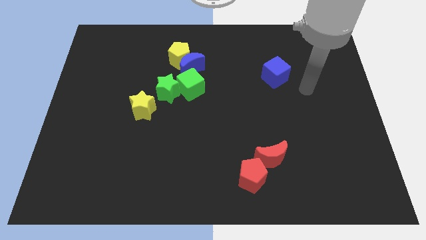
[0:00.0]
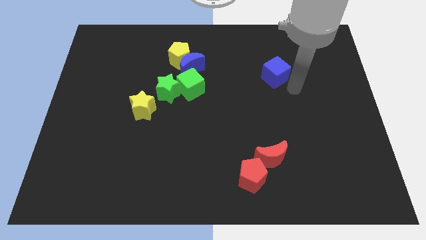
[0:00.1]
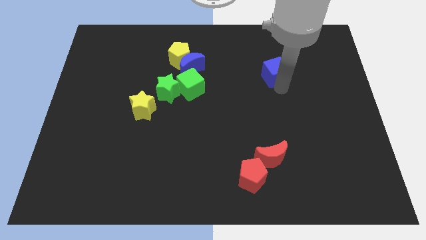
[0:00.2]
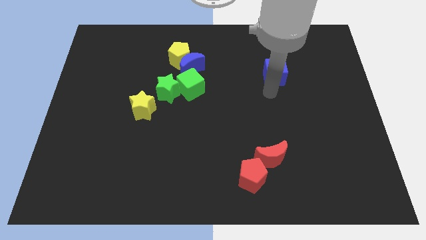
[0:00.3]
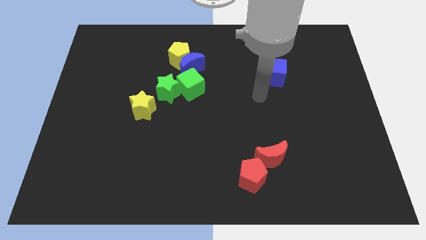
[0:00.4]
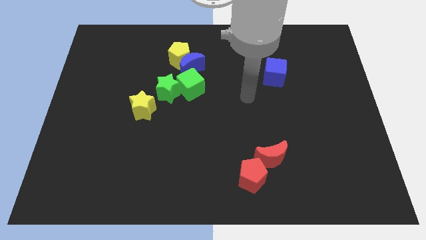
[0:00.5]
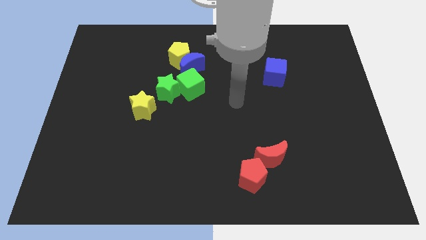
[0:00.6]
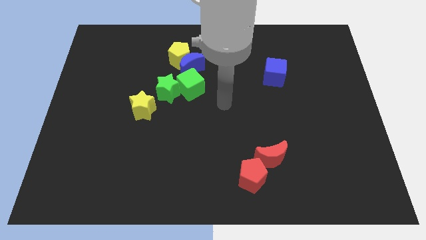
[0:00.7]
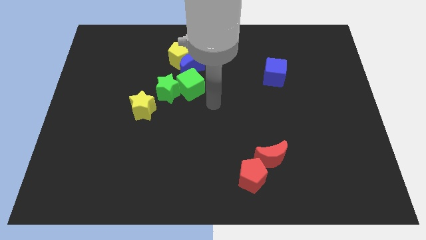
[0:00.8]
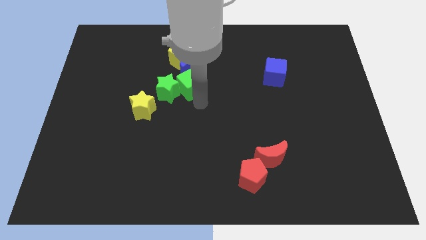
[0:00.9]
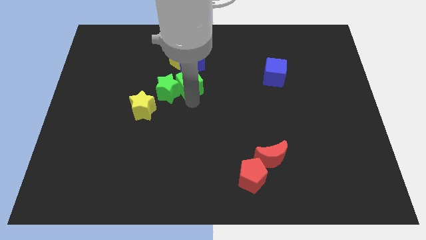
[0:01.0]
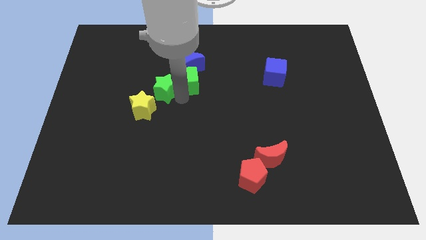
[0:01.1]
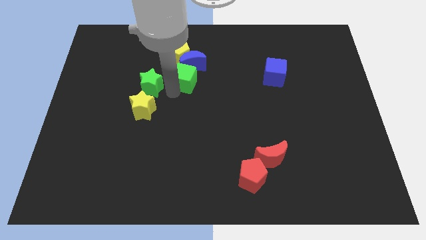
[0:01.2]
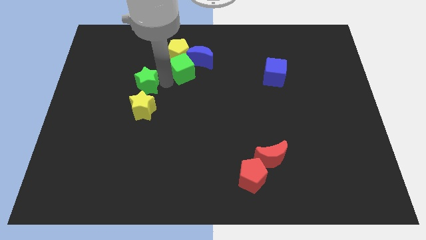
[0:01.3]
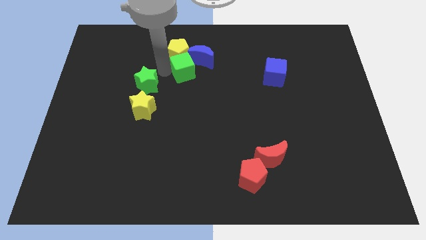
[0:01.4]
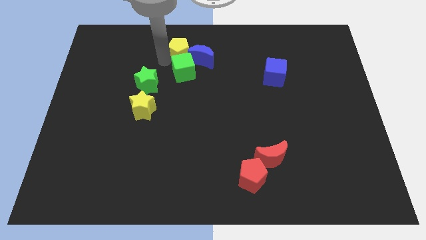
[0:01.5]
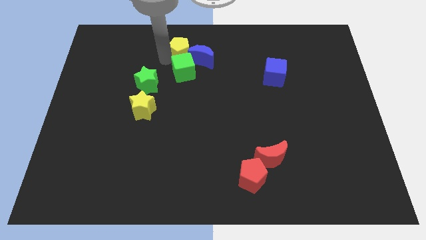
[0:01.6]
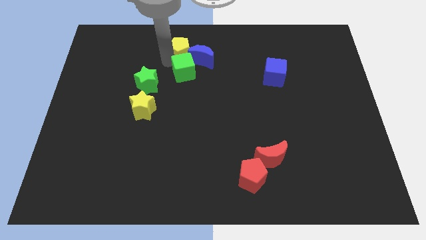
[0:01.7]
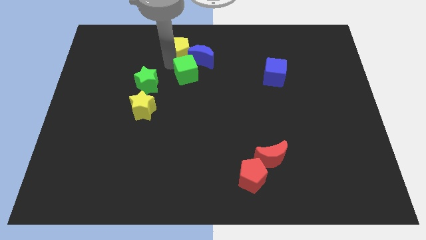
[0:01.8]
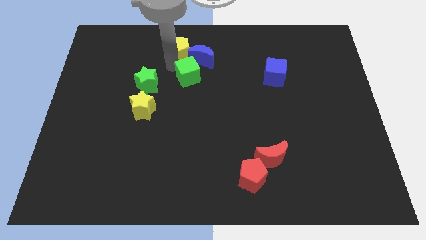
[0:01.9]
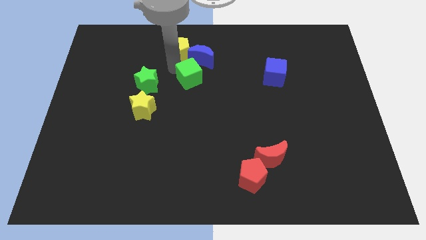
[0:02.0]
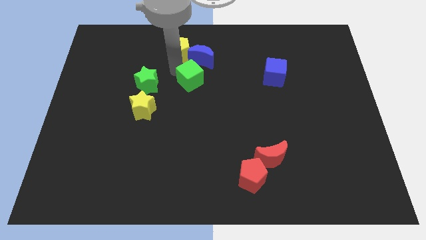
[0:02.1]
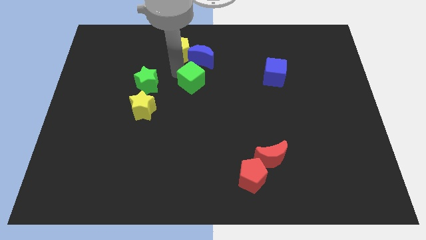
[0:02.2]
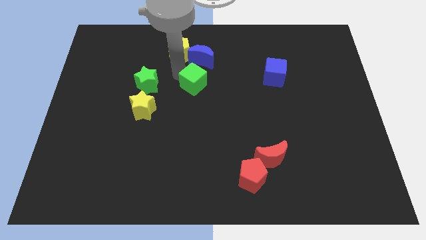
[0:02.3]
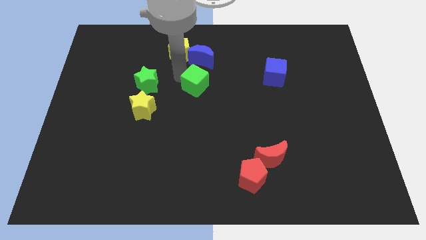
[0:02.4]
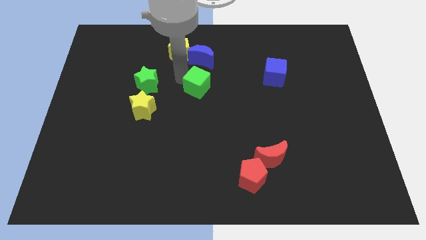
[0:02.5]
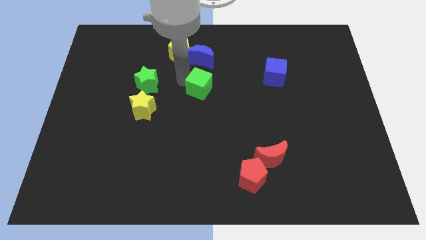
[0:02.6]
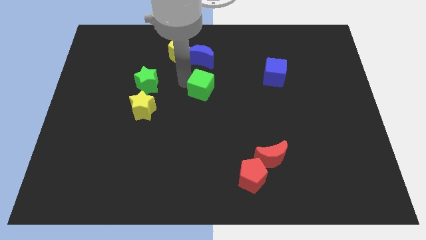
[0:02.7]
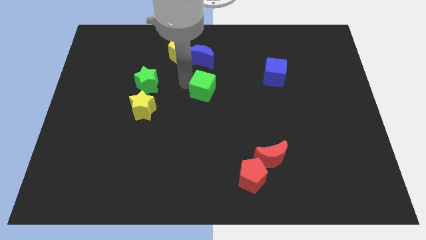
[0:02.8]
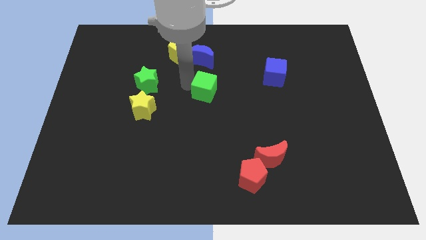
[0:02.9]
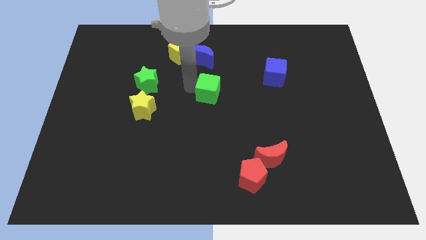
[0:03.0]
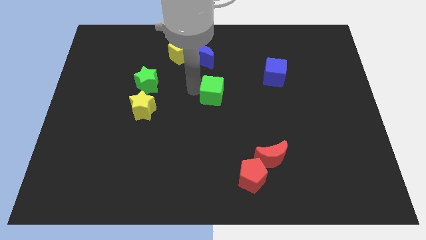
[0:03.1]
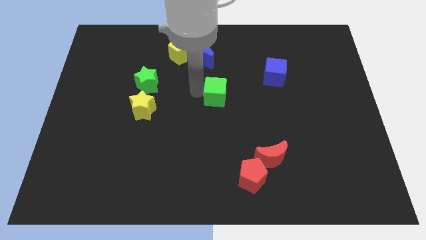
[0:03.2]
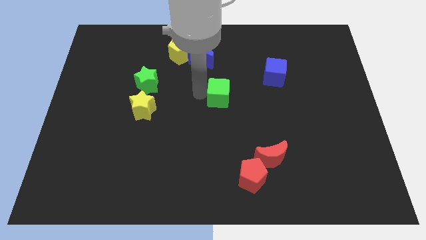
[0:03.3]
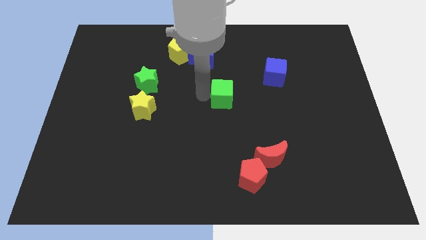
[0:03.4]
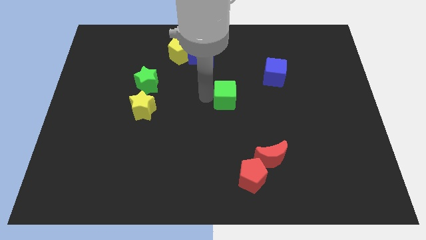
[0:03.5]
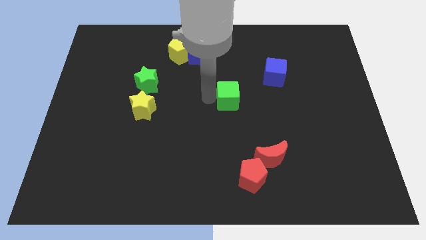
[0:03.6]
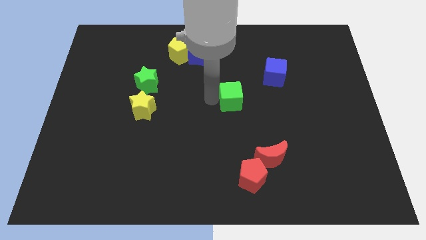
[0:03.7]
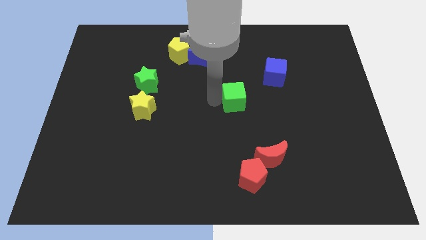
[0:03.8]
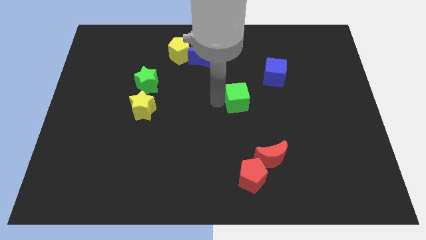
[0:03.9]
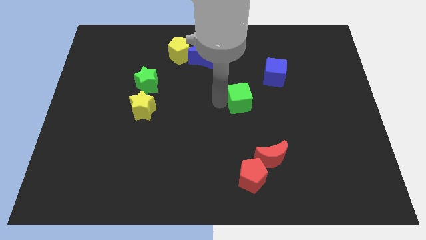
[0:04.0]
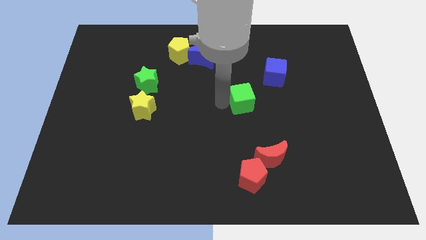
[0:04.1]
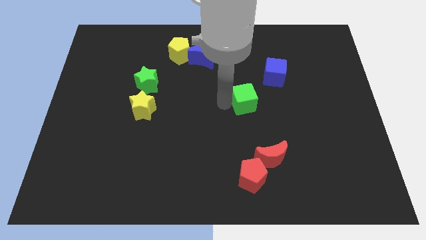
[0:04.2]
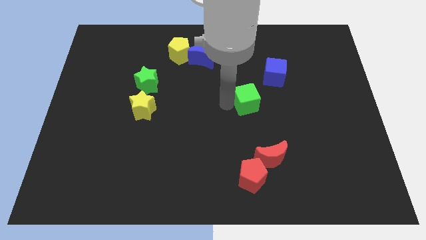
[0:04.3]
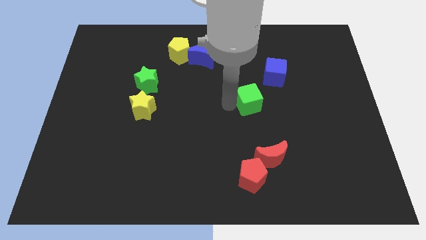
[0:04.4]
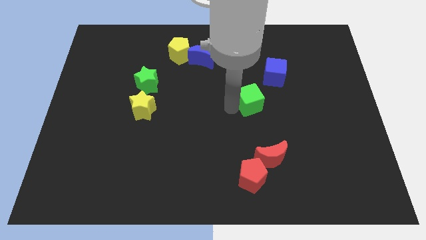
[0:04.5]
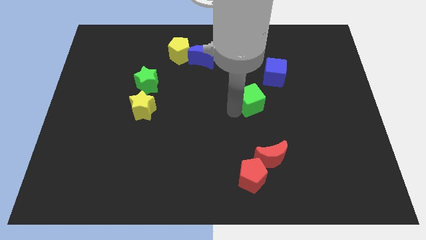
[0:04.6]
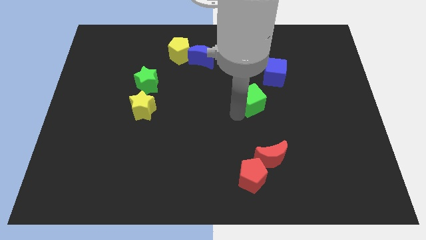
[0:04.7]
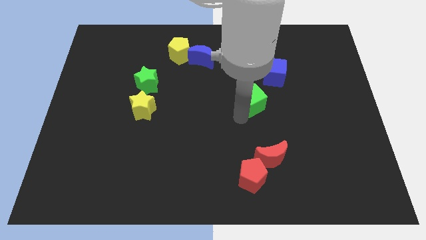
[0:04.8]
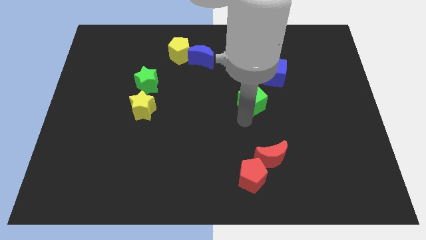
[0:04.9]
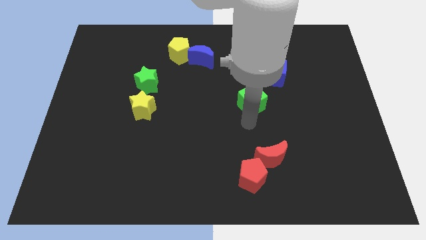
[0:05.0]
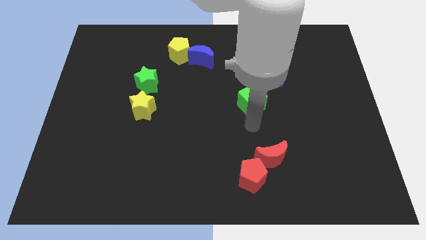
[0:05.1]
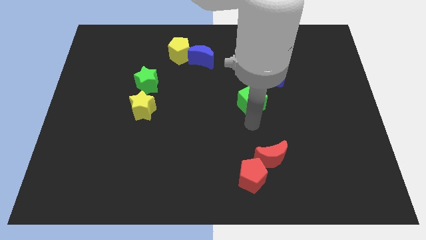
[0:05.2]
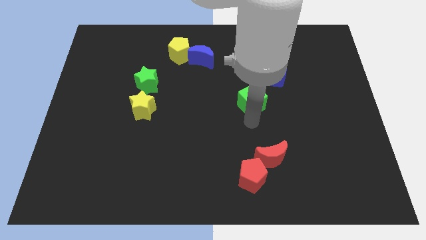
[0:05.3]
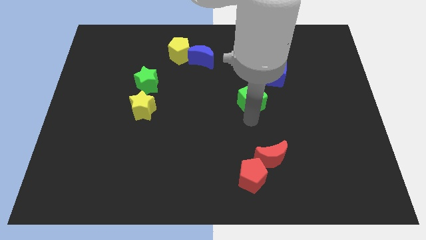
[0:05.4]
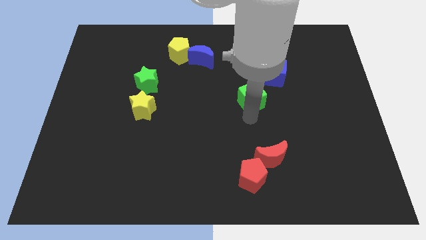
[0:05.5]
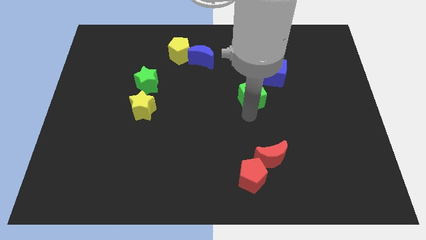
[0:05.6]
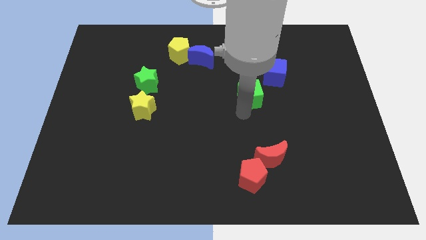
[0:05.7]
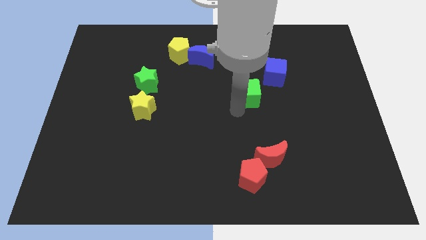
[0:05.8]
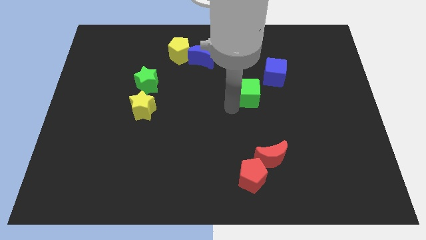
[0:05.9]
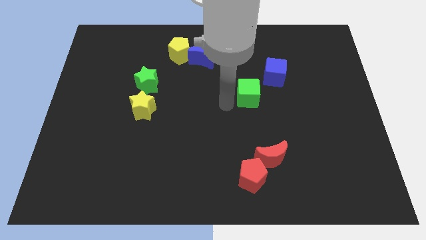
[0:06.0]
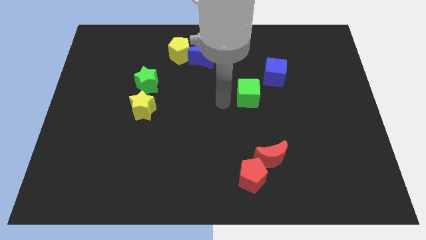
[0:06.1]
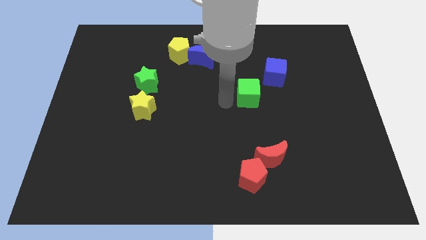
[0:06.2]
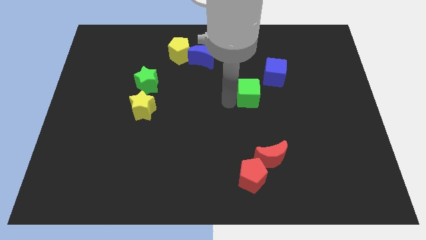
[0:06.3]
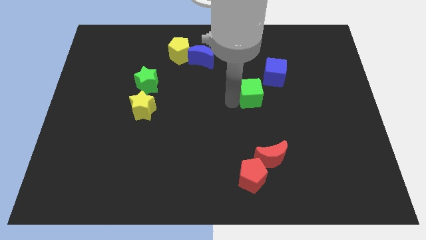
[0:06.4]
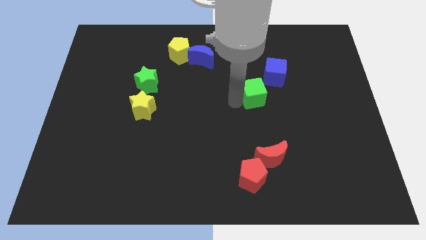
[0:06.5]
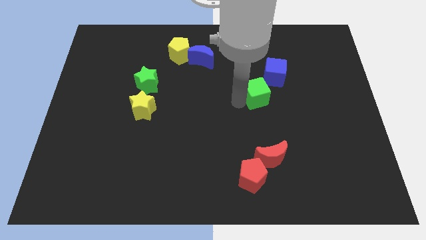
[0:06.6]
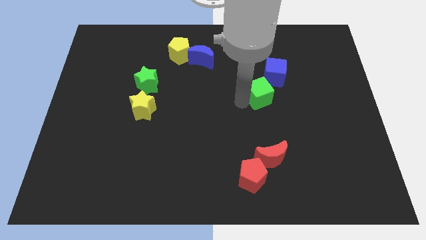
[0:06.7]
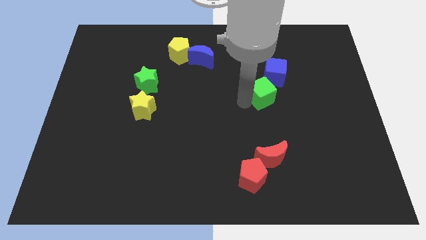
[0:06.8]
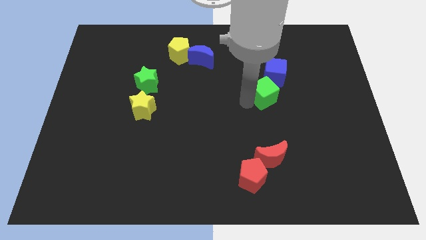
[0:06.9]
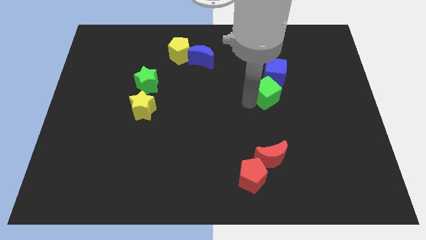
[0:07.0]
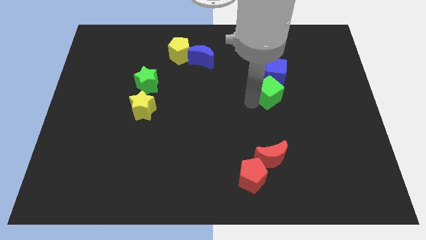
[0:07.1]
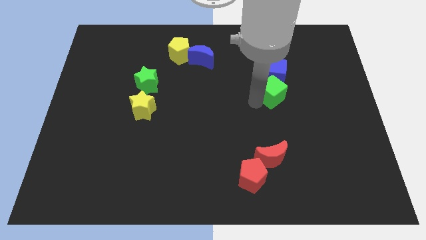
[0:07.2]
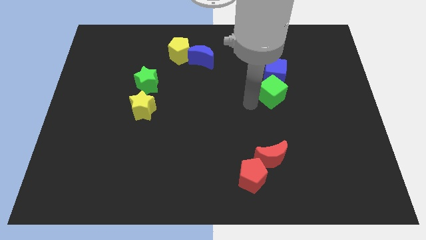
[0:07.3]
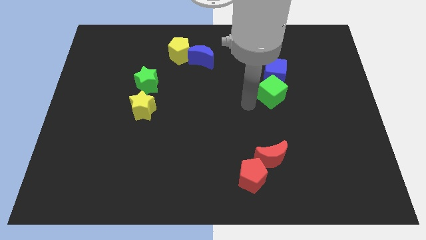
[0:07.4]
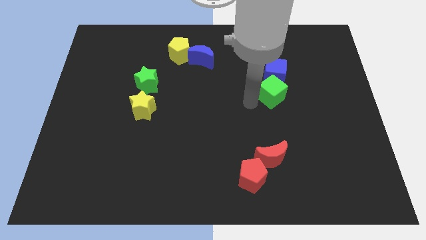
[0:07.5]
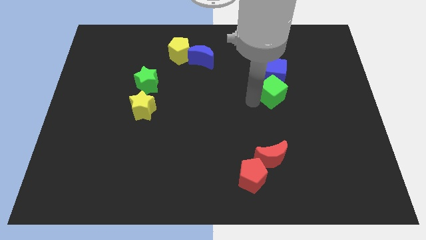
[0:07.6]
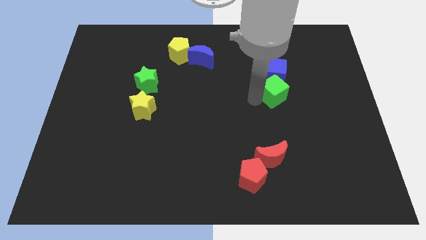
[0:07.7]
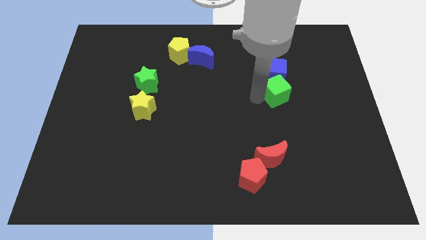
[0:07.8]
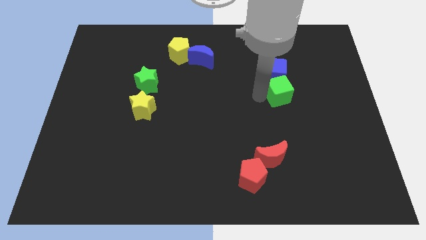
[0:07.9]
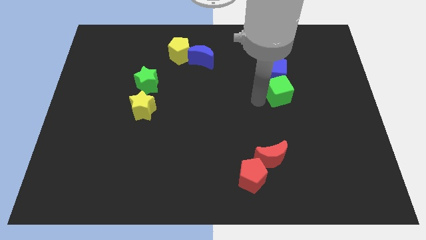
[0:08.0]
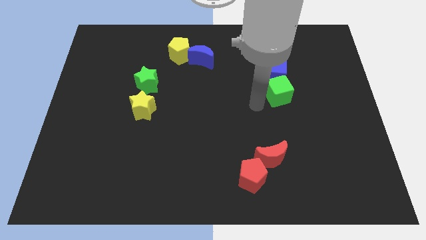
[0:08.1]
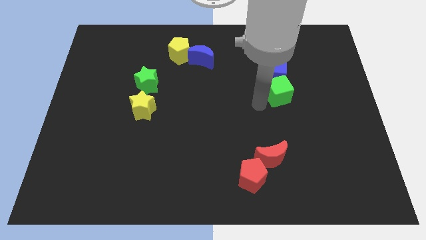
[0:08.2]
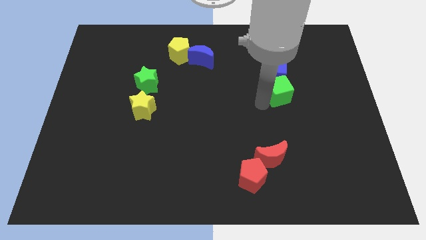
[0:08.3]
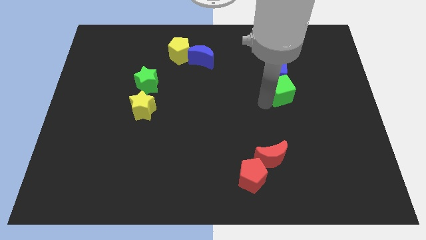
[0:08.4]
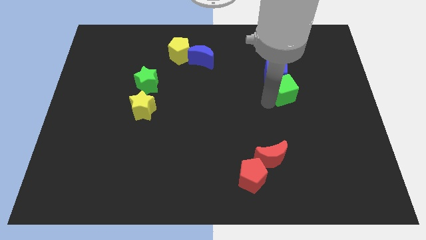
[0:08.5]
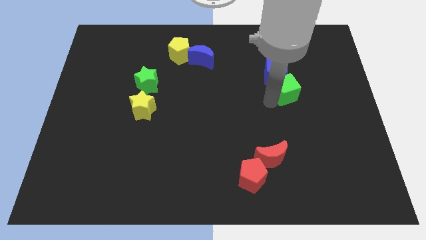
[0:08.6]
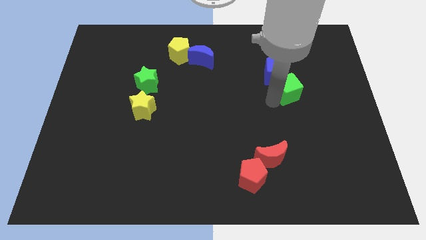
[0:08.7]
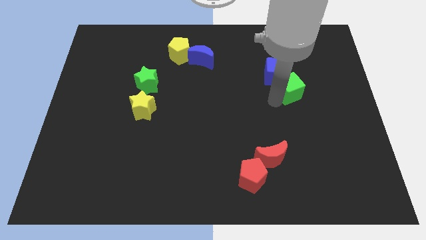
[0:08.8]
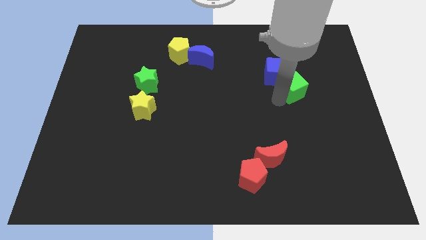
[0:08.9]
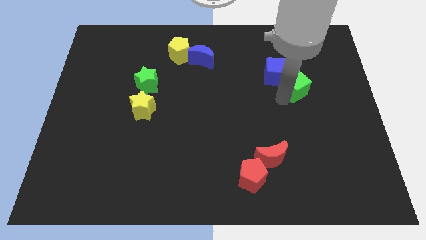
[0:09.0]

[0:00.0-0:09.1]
move the green cube to the right side of the blue cube
